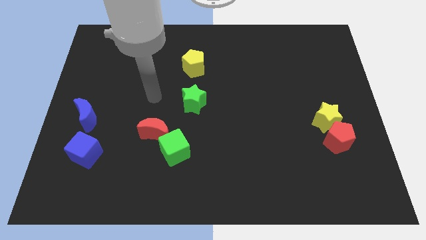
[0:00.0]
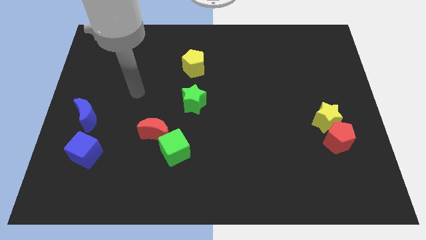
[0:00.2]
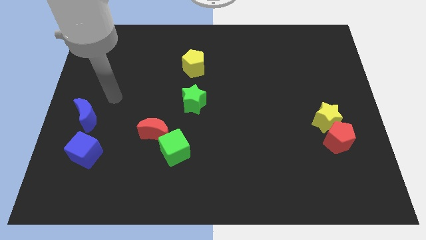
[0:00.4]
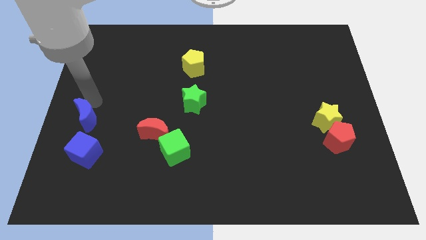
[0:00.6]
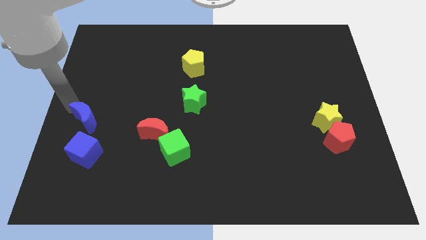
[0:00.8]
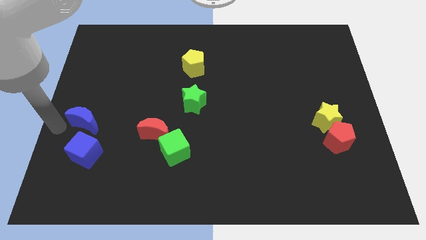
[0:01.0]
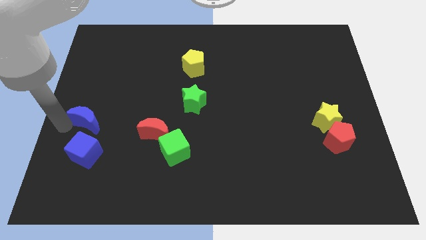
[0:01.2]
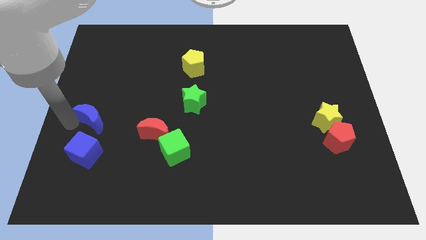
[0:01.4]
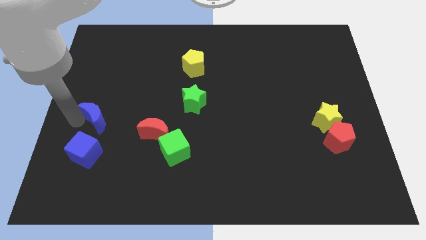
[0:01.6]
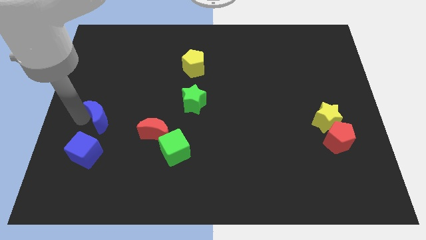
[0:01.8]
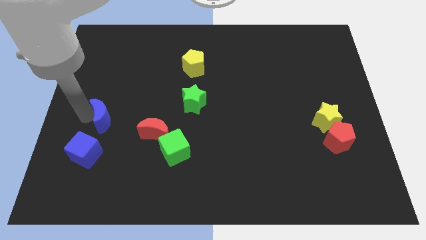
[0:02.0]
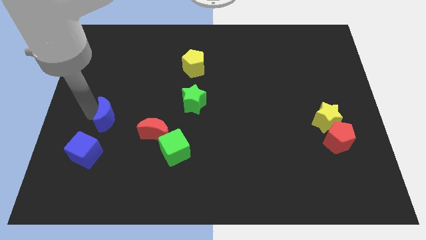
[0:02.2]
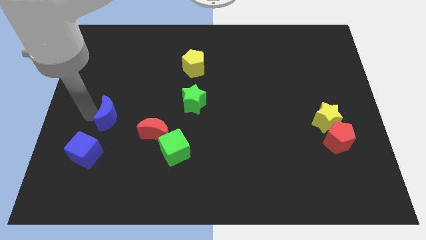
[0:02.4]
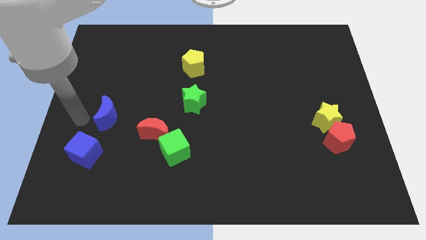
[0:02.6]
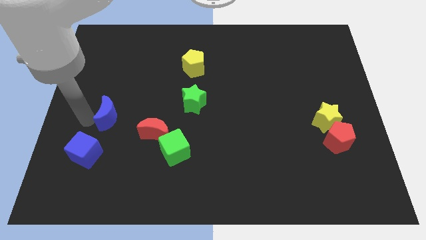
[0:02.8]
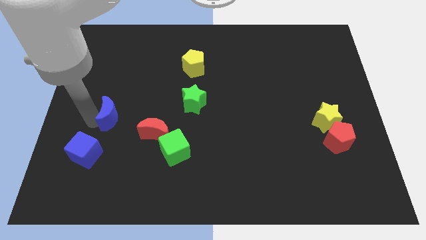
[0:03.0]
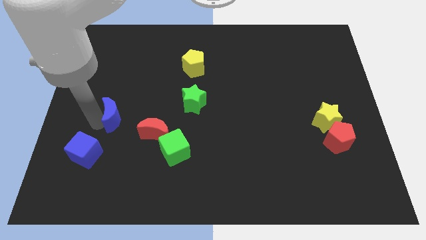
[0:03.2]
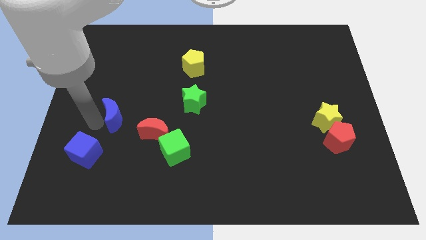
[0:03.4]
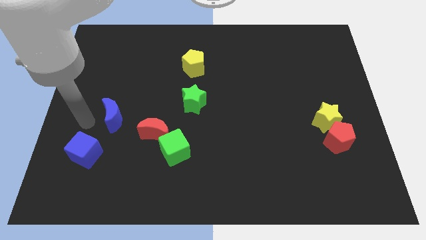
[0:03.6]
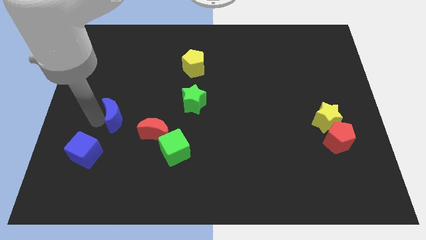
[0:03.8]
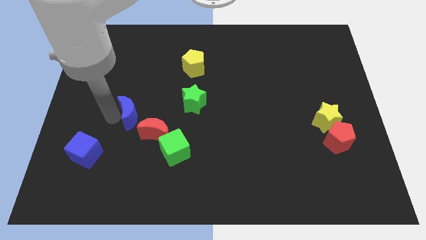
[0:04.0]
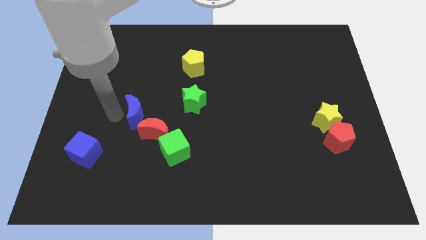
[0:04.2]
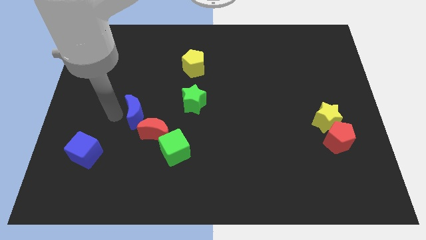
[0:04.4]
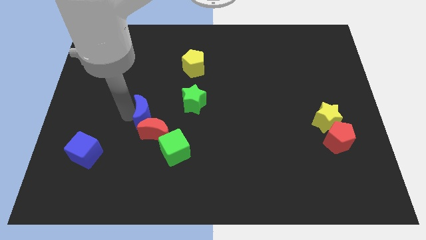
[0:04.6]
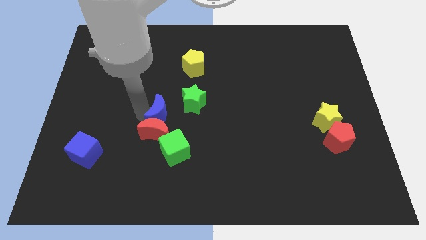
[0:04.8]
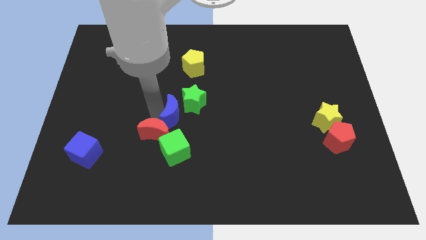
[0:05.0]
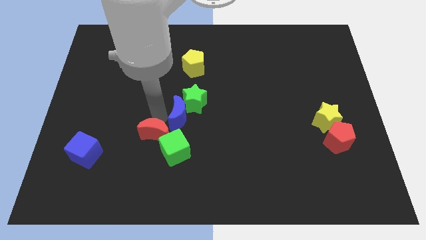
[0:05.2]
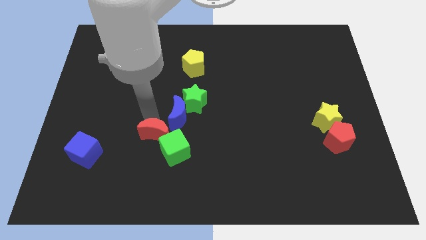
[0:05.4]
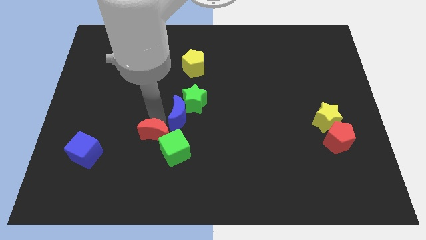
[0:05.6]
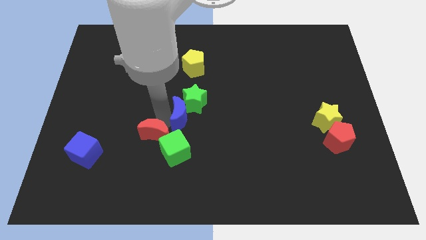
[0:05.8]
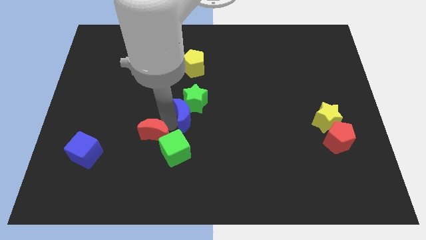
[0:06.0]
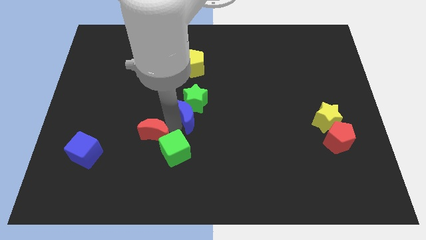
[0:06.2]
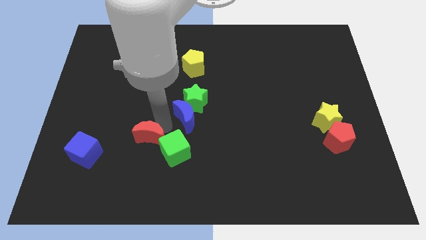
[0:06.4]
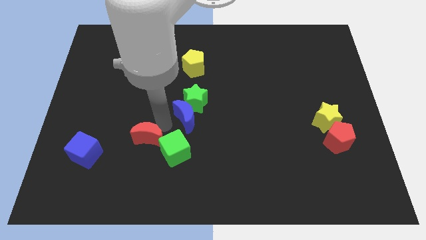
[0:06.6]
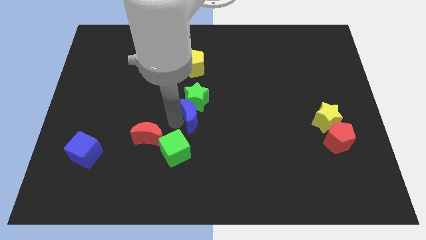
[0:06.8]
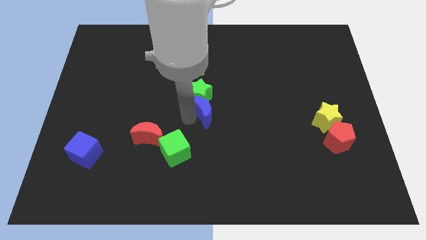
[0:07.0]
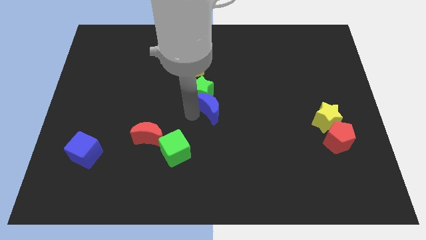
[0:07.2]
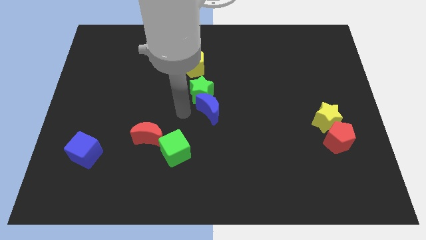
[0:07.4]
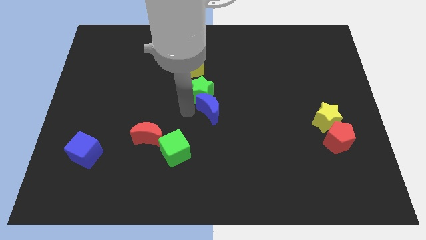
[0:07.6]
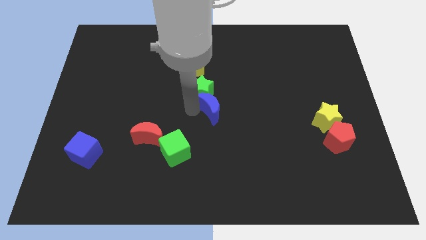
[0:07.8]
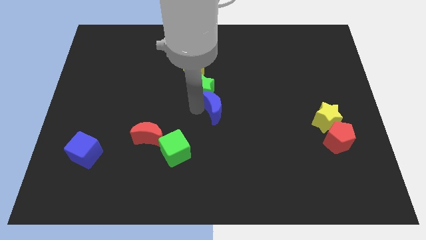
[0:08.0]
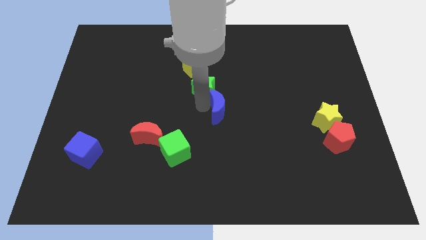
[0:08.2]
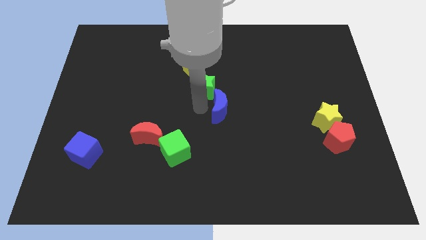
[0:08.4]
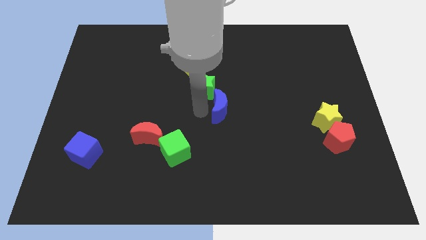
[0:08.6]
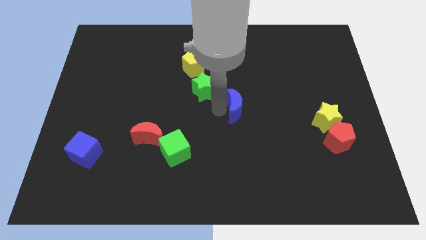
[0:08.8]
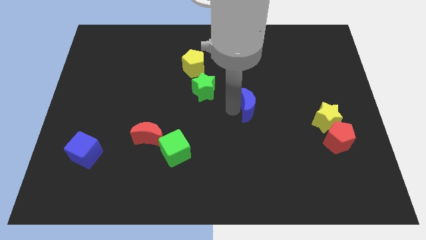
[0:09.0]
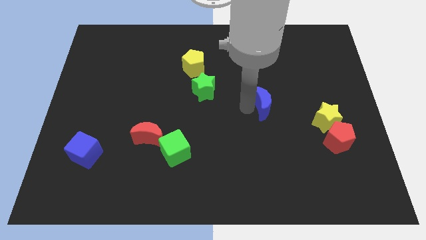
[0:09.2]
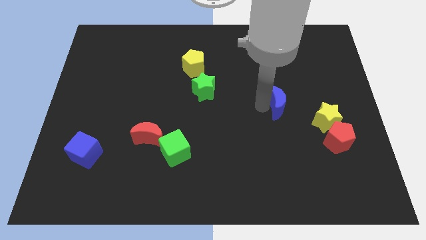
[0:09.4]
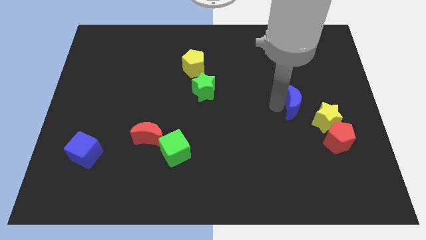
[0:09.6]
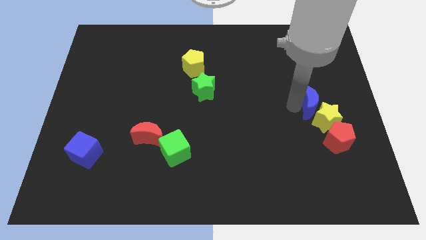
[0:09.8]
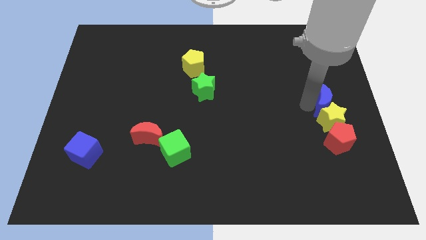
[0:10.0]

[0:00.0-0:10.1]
put the blue moon to the right side
